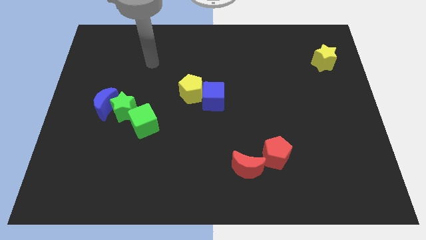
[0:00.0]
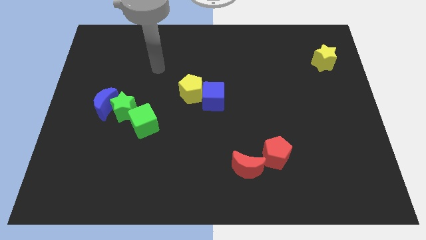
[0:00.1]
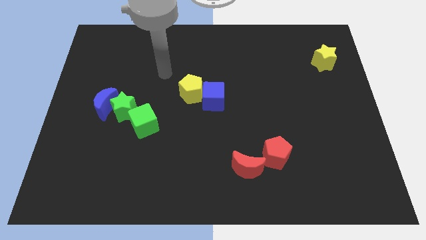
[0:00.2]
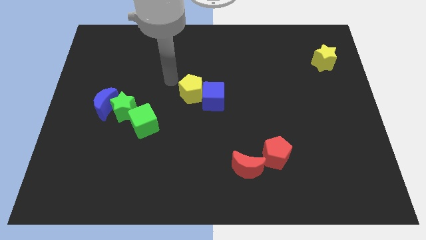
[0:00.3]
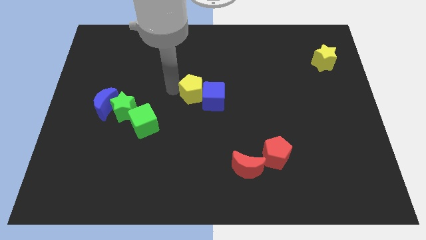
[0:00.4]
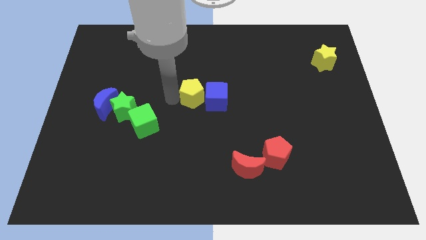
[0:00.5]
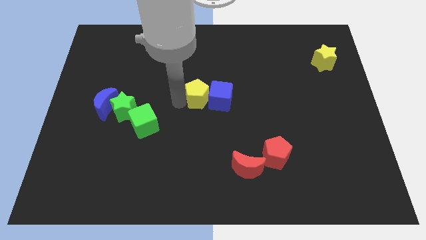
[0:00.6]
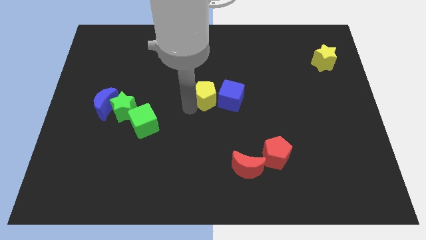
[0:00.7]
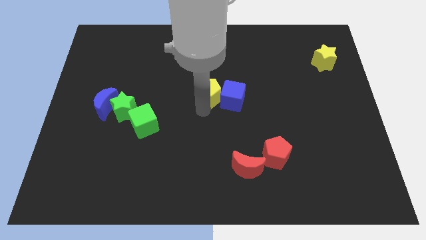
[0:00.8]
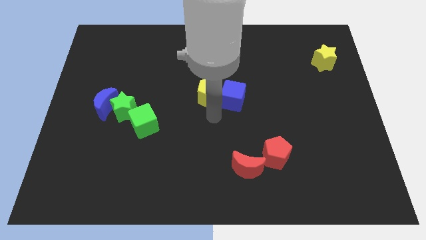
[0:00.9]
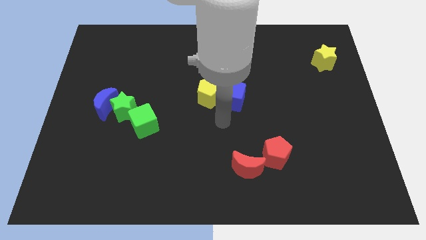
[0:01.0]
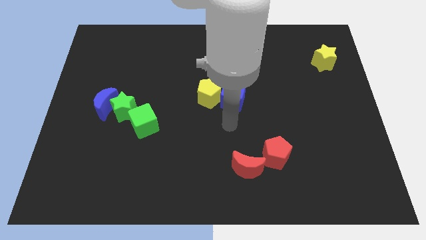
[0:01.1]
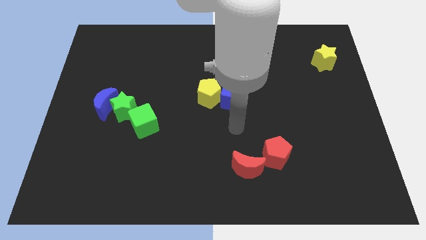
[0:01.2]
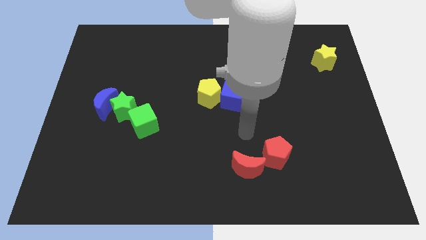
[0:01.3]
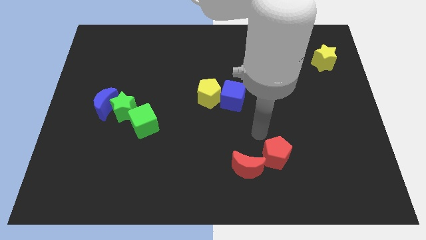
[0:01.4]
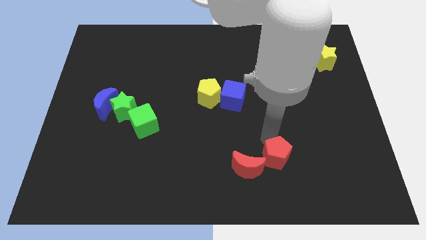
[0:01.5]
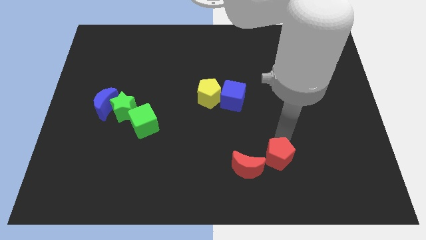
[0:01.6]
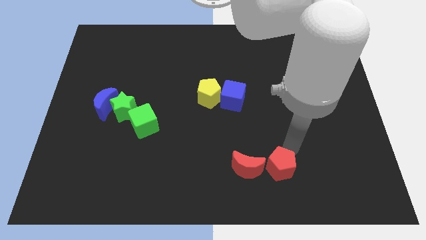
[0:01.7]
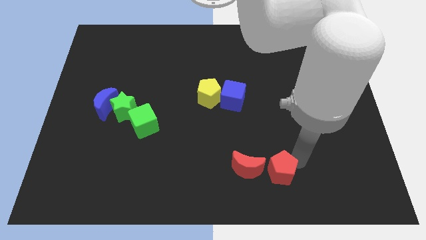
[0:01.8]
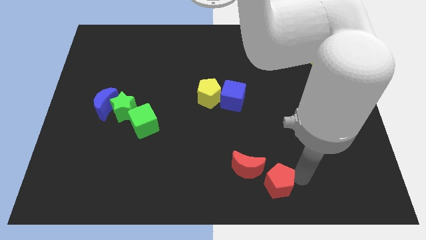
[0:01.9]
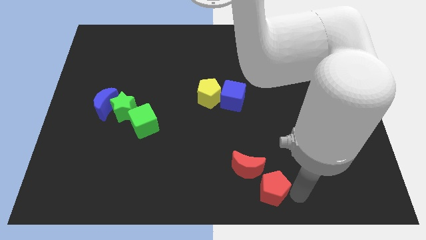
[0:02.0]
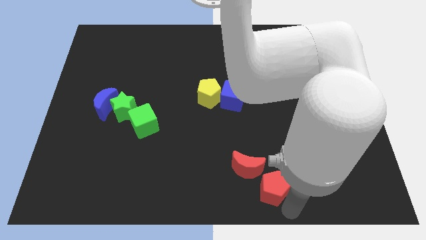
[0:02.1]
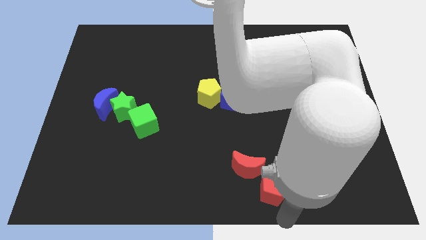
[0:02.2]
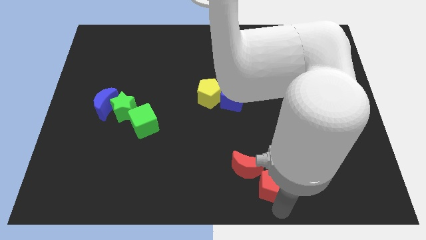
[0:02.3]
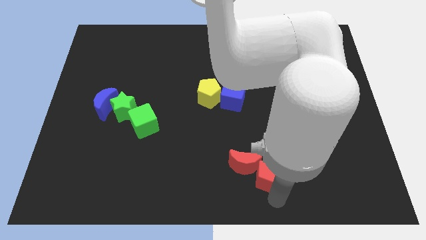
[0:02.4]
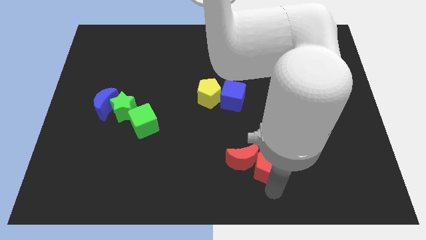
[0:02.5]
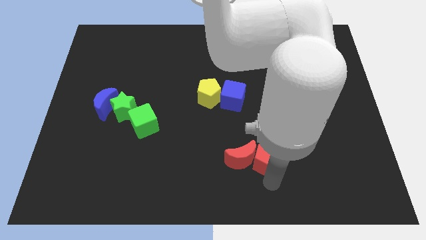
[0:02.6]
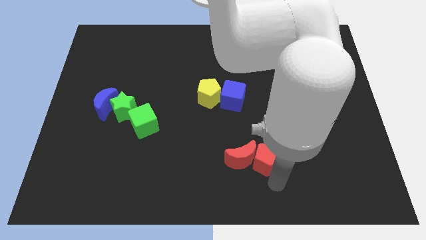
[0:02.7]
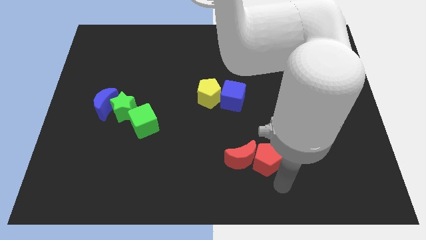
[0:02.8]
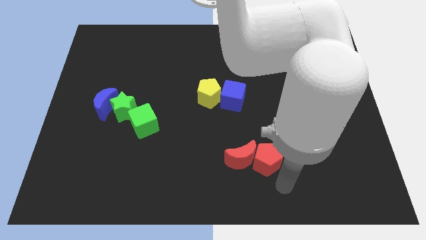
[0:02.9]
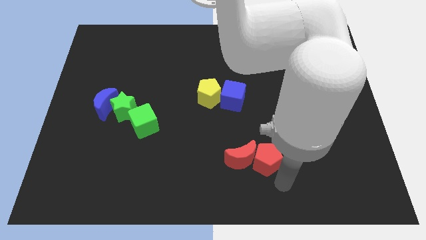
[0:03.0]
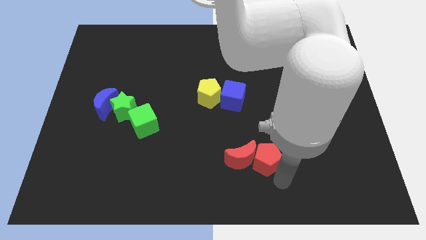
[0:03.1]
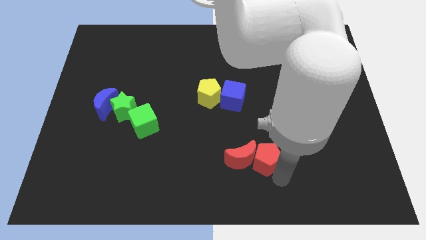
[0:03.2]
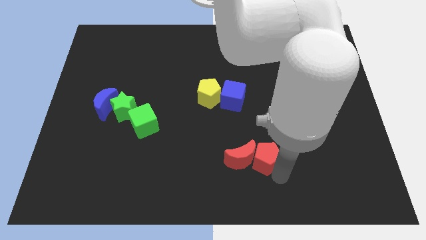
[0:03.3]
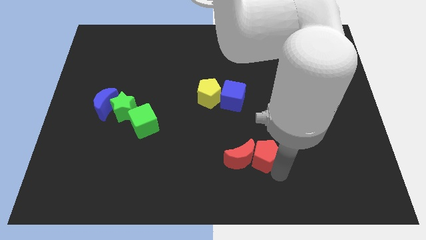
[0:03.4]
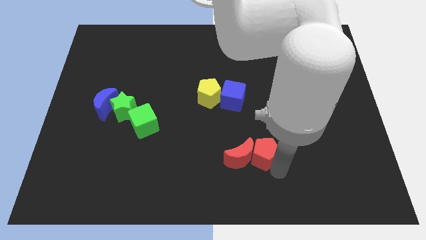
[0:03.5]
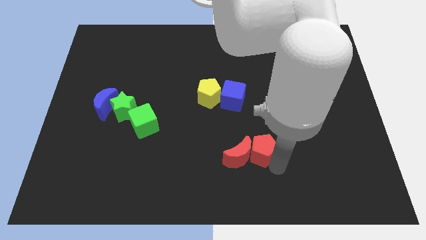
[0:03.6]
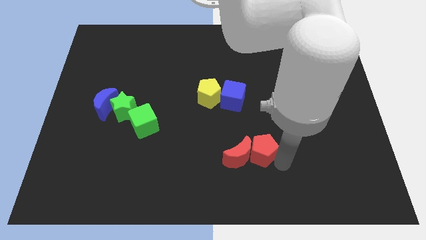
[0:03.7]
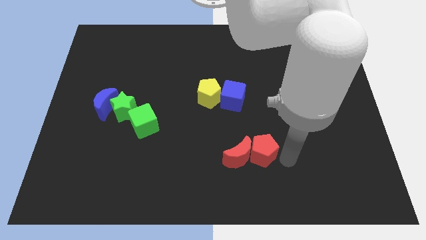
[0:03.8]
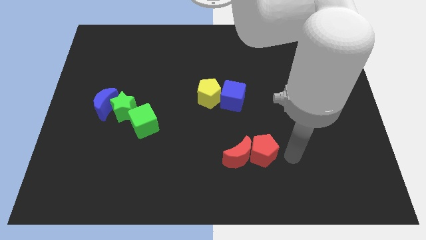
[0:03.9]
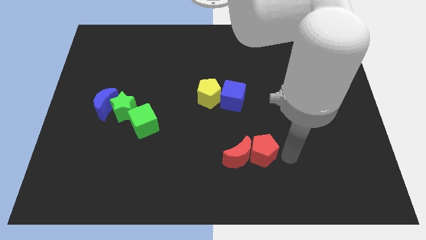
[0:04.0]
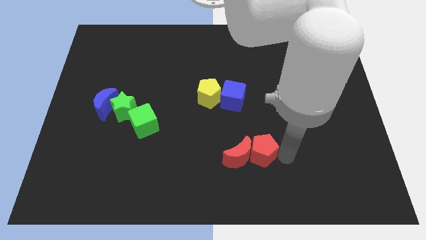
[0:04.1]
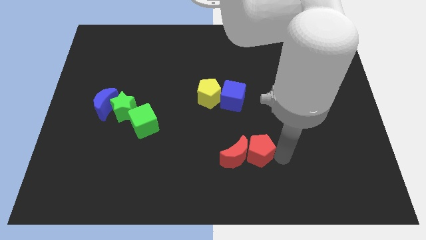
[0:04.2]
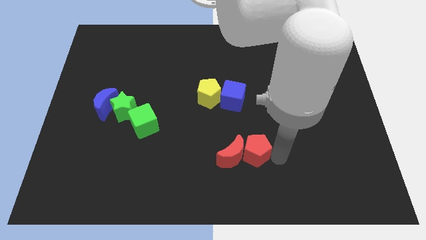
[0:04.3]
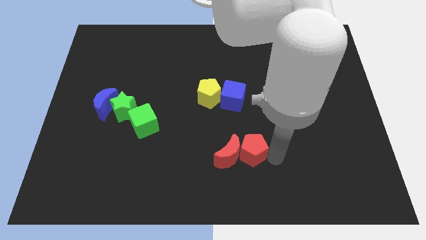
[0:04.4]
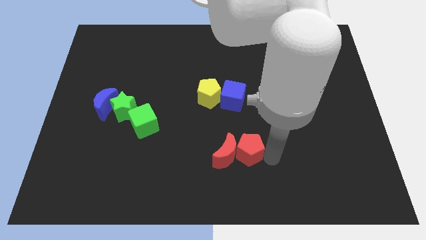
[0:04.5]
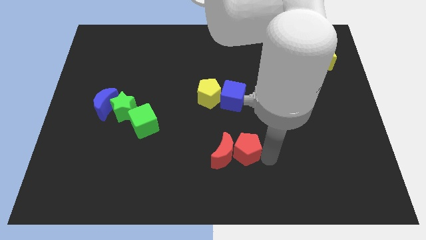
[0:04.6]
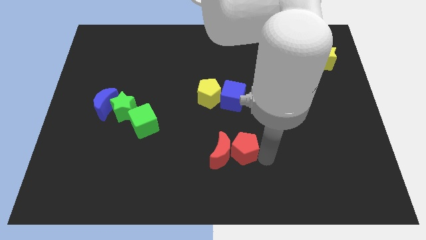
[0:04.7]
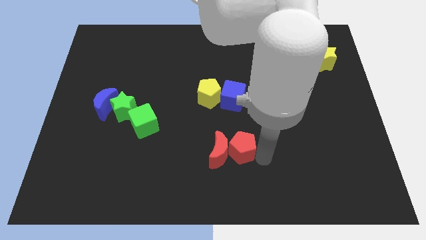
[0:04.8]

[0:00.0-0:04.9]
slightly slide the red pentagon left

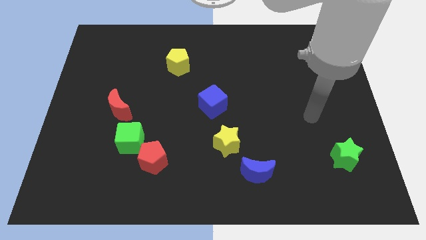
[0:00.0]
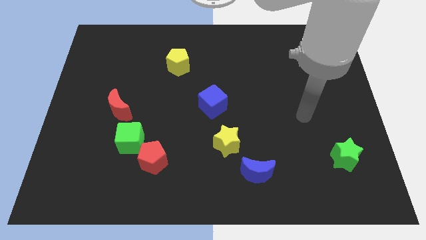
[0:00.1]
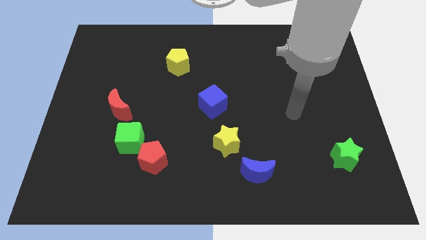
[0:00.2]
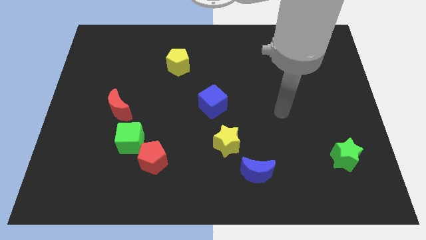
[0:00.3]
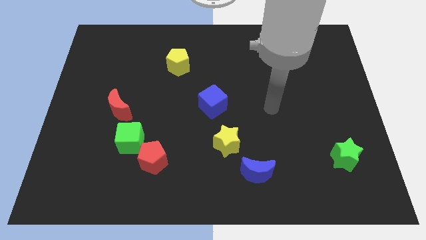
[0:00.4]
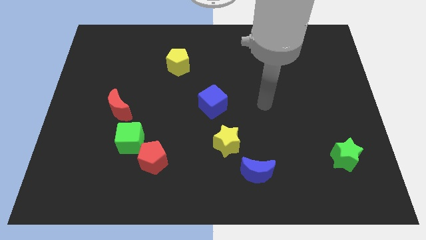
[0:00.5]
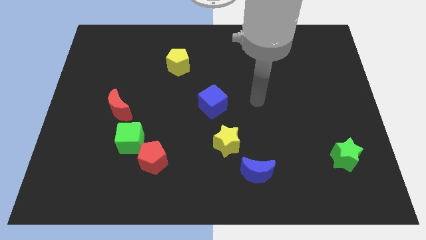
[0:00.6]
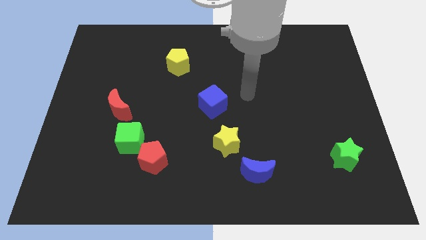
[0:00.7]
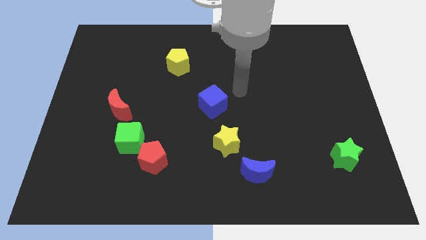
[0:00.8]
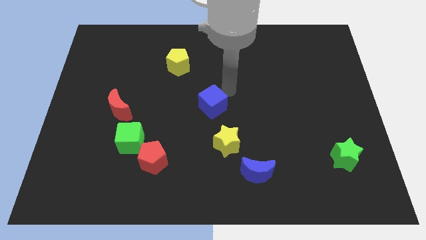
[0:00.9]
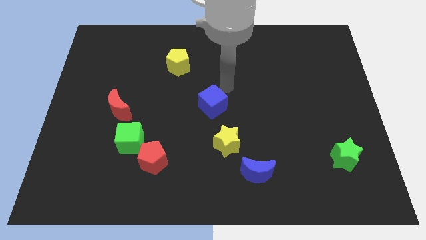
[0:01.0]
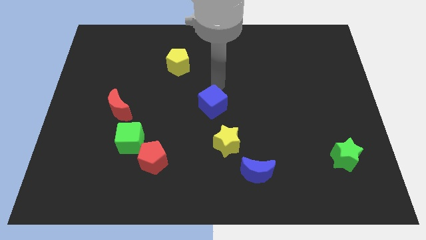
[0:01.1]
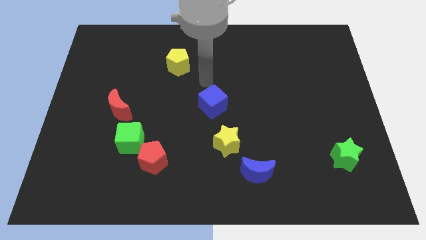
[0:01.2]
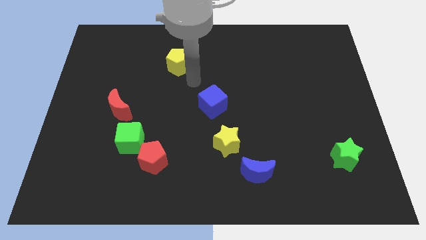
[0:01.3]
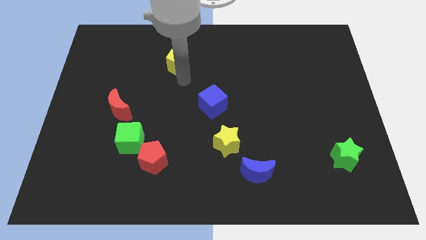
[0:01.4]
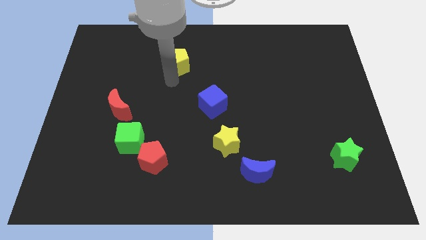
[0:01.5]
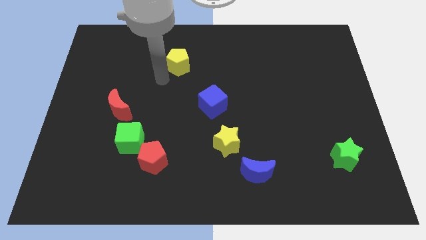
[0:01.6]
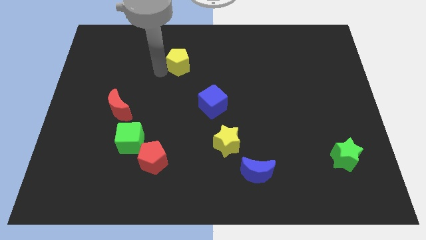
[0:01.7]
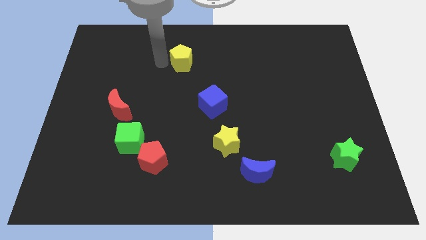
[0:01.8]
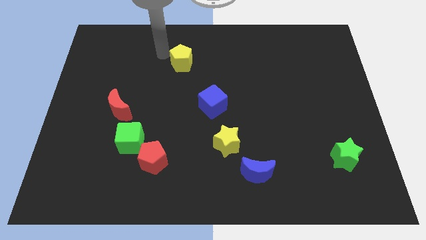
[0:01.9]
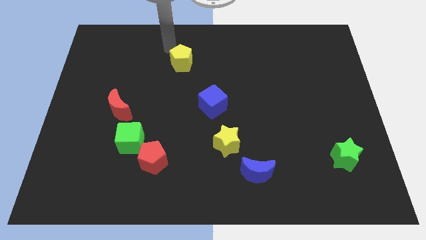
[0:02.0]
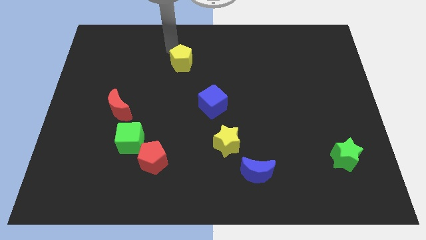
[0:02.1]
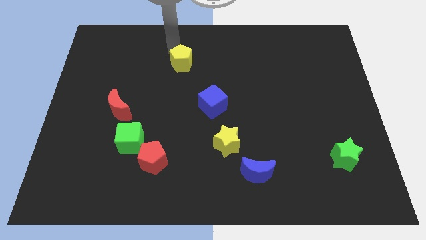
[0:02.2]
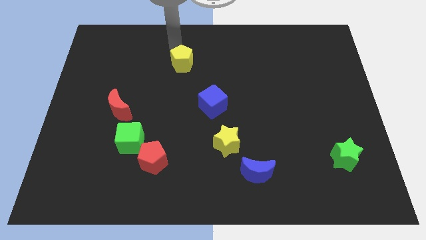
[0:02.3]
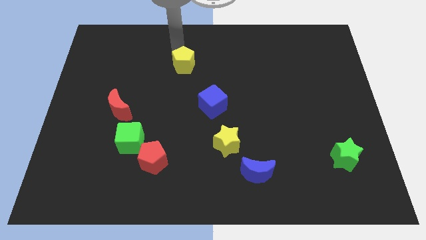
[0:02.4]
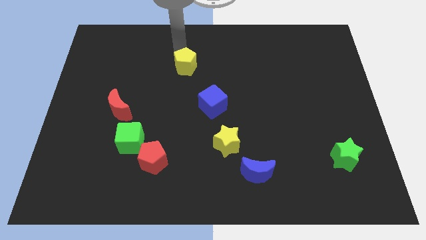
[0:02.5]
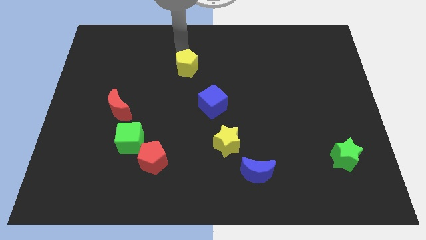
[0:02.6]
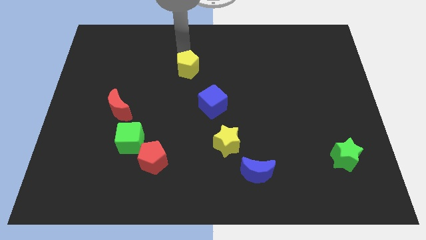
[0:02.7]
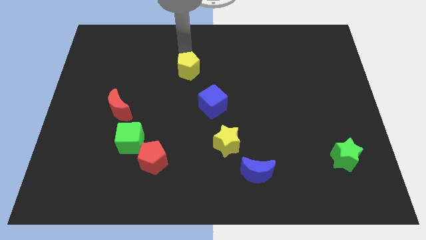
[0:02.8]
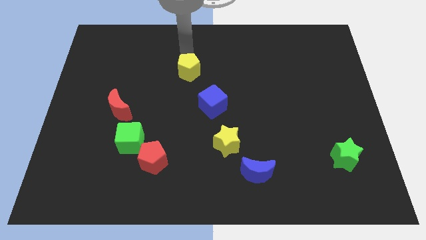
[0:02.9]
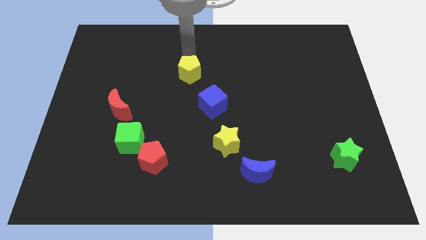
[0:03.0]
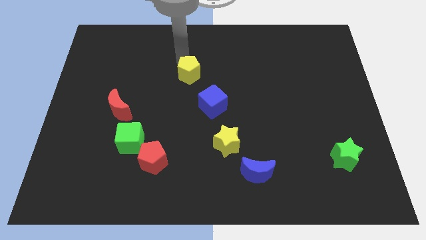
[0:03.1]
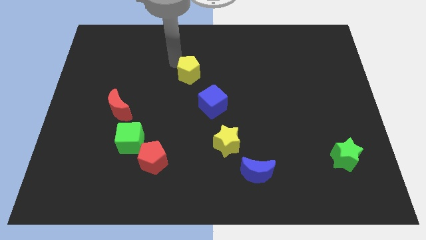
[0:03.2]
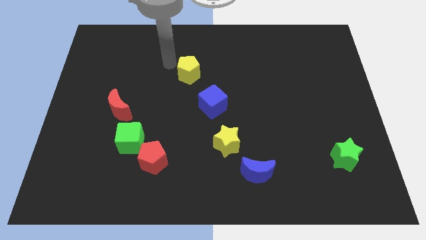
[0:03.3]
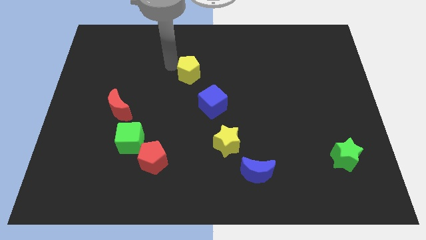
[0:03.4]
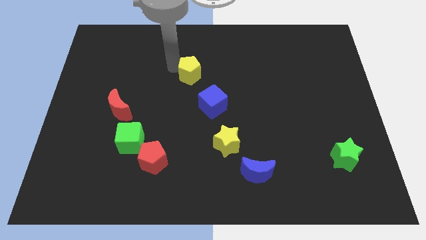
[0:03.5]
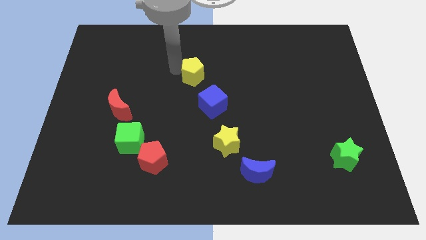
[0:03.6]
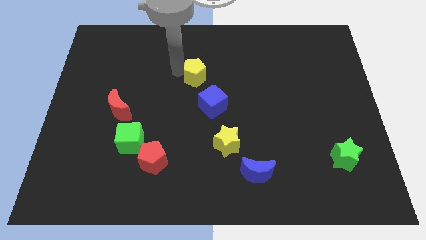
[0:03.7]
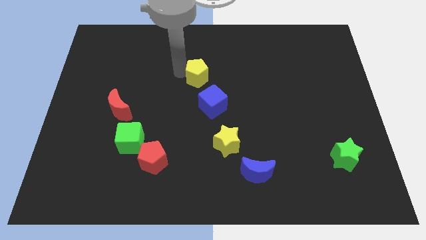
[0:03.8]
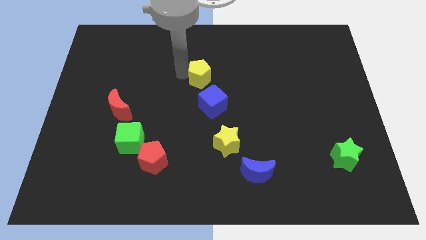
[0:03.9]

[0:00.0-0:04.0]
slightly move the yellow pentagon down and to the right diagonally
